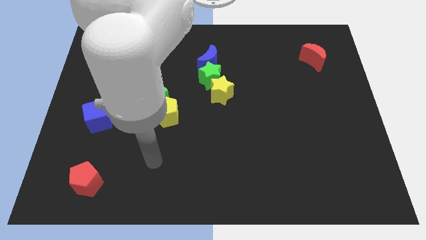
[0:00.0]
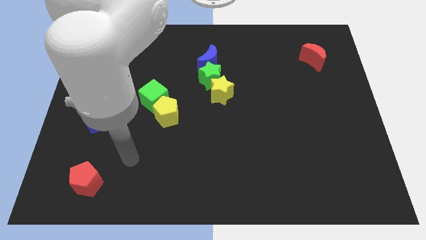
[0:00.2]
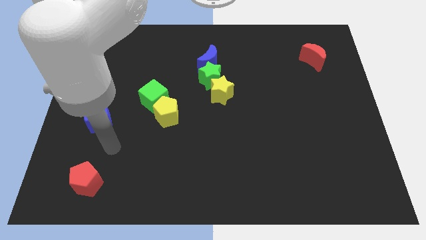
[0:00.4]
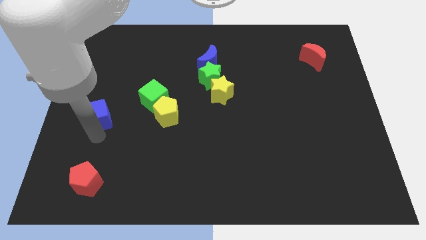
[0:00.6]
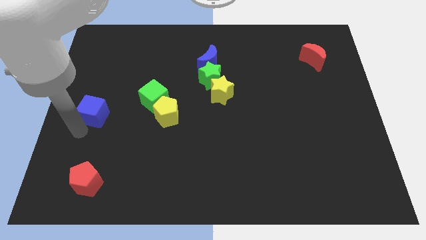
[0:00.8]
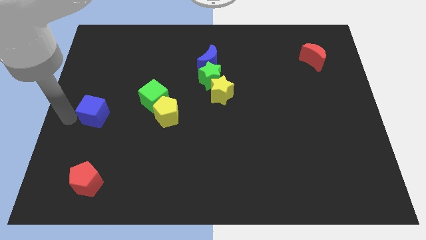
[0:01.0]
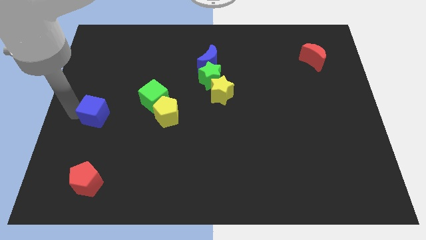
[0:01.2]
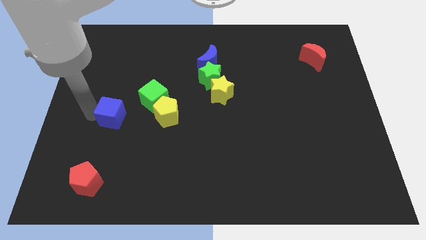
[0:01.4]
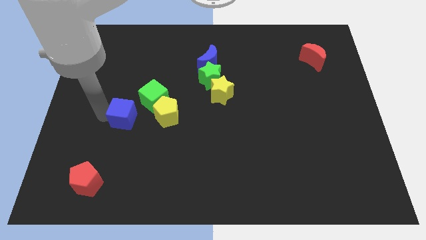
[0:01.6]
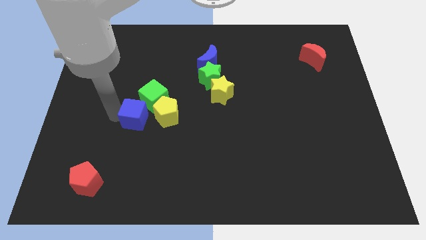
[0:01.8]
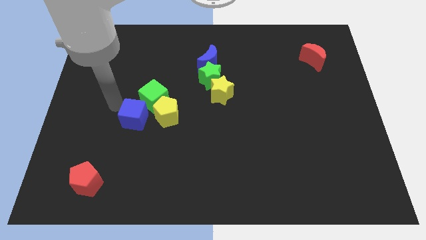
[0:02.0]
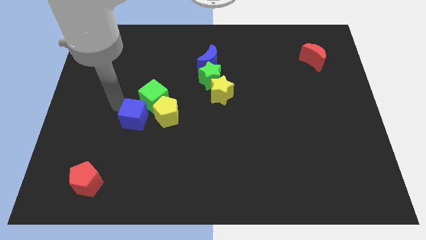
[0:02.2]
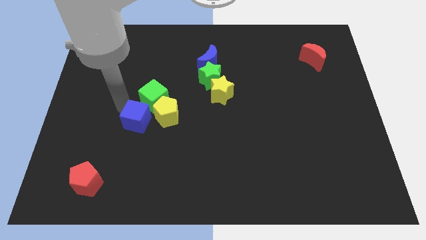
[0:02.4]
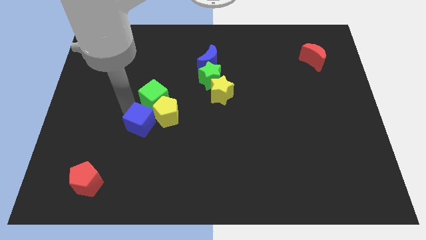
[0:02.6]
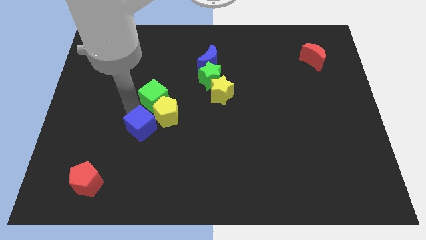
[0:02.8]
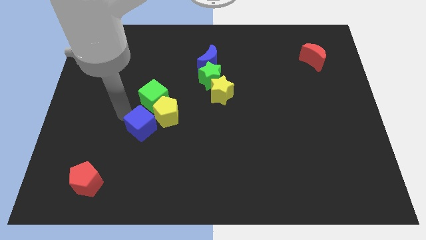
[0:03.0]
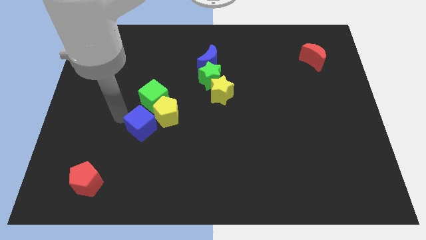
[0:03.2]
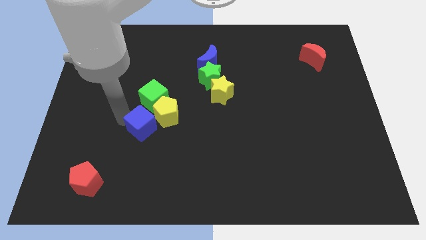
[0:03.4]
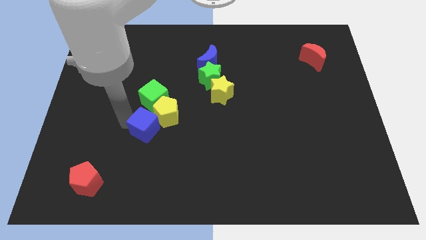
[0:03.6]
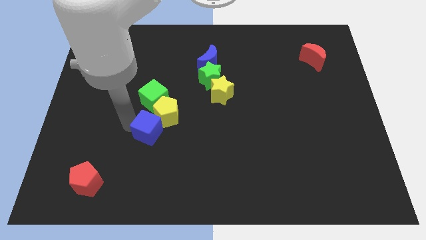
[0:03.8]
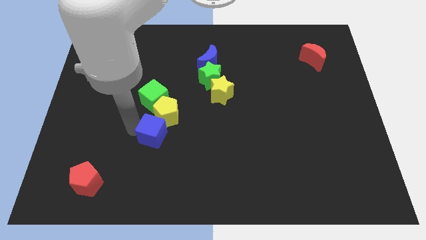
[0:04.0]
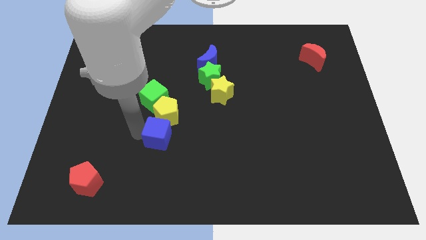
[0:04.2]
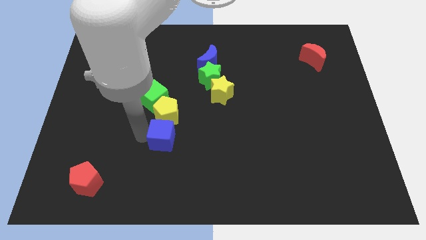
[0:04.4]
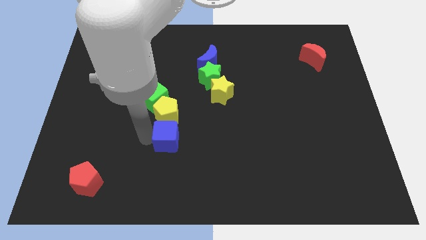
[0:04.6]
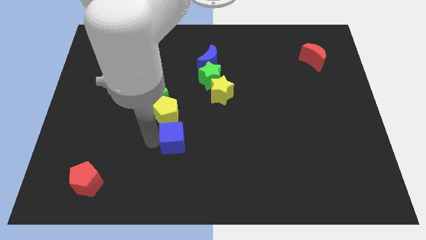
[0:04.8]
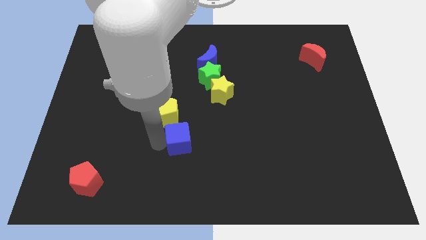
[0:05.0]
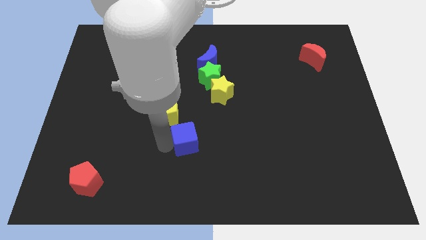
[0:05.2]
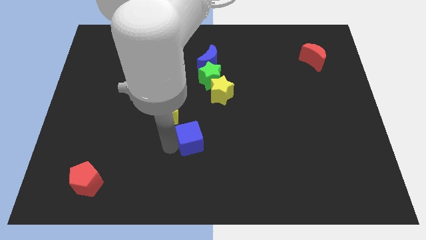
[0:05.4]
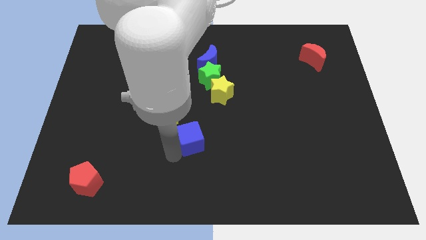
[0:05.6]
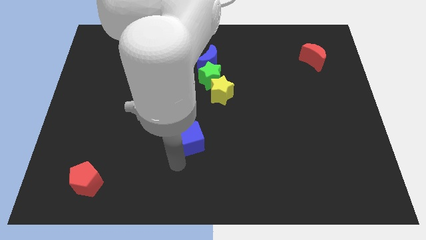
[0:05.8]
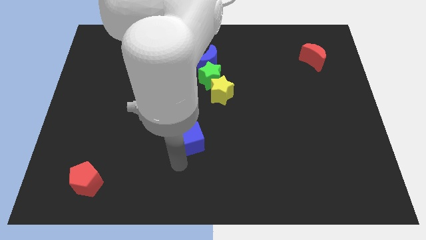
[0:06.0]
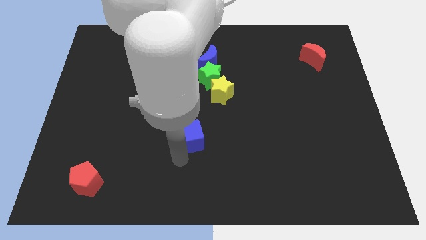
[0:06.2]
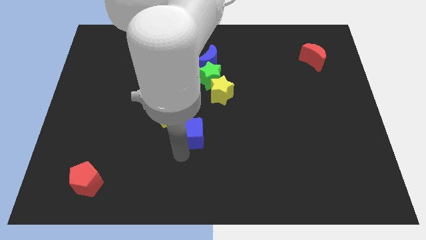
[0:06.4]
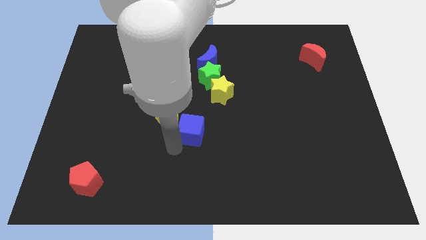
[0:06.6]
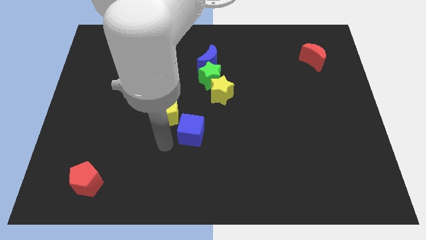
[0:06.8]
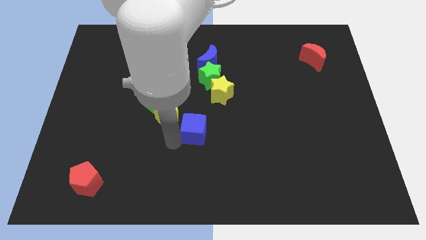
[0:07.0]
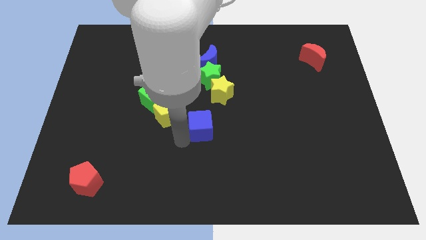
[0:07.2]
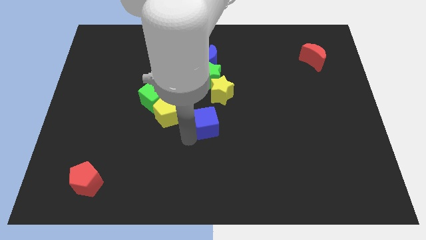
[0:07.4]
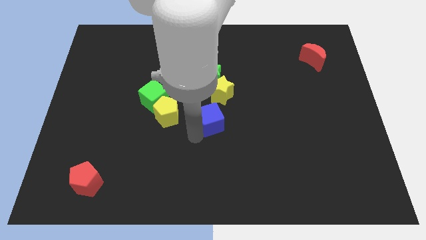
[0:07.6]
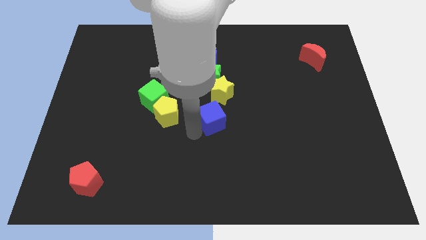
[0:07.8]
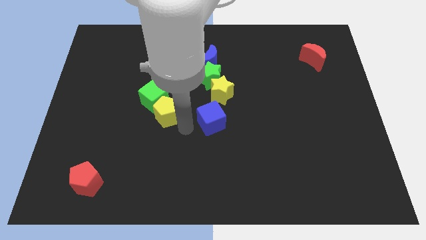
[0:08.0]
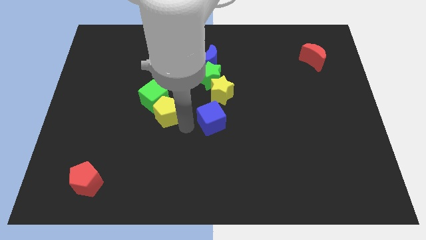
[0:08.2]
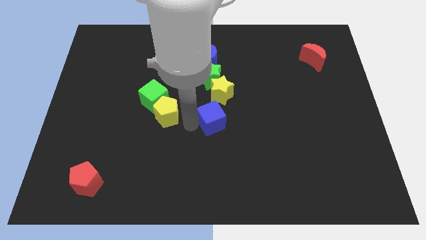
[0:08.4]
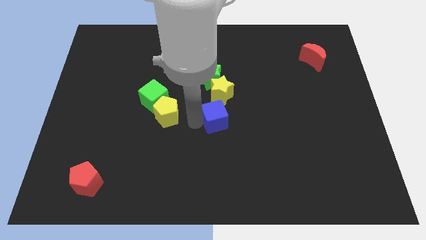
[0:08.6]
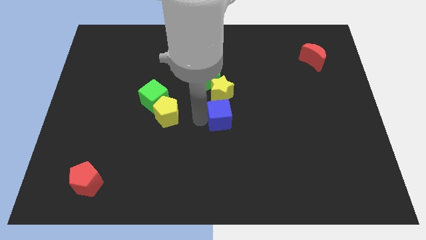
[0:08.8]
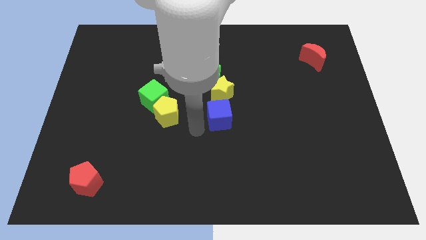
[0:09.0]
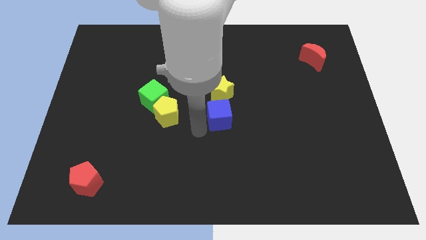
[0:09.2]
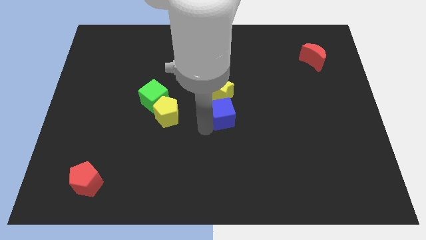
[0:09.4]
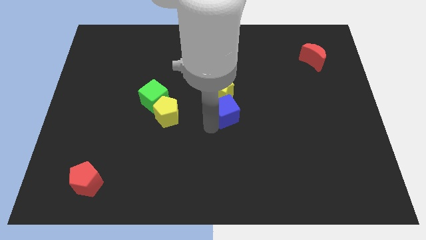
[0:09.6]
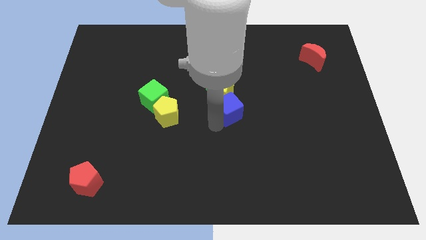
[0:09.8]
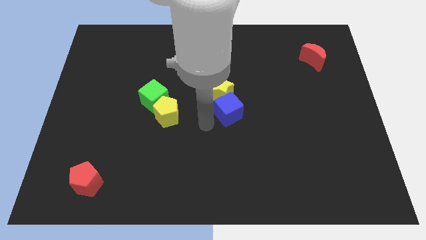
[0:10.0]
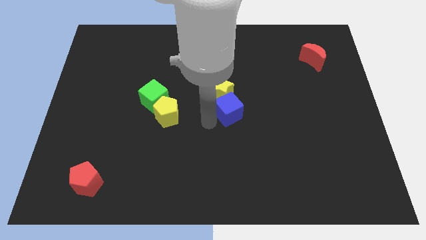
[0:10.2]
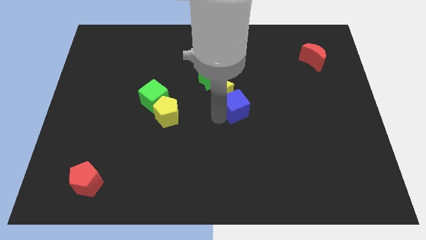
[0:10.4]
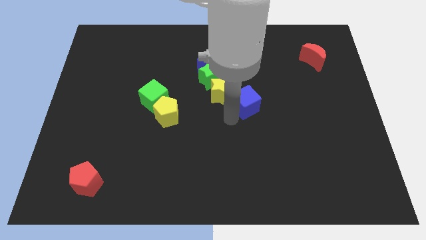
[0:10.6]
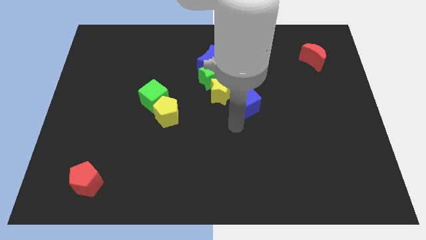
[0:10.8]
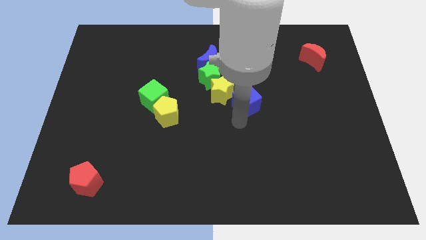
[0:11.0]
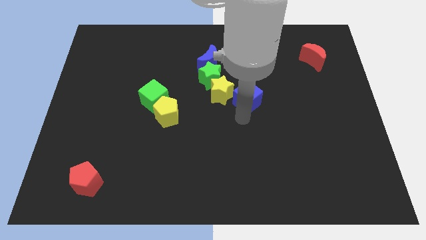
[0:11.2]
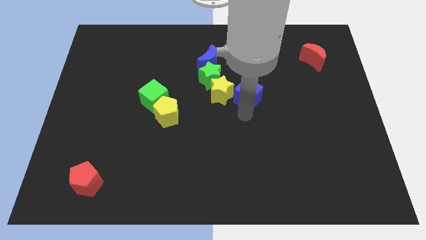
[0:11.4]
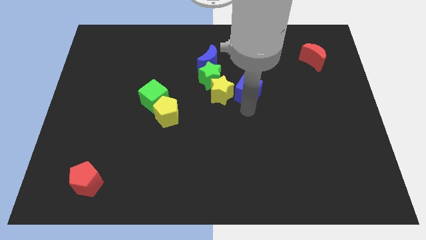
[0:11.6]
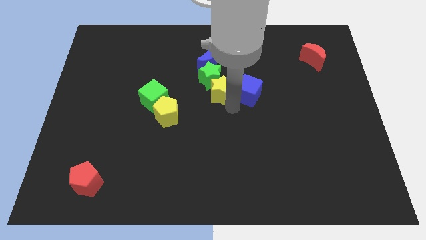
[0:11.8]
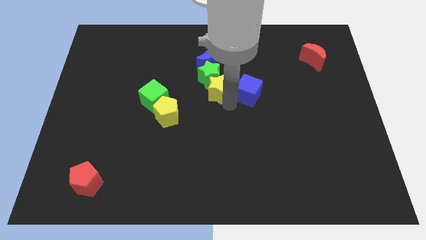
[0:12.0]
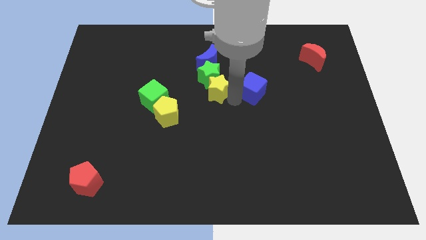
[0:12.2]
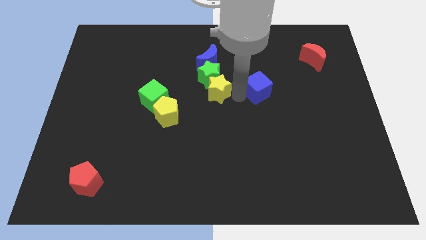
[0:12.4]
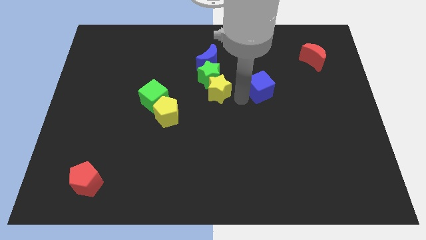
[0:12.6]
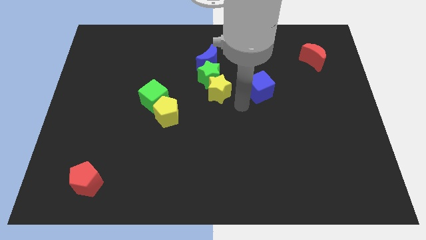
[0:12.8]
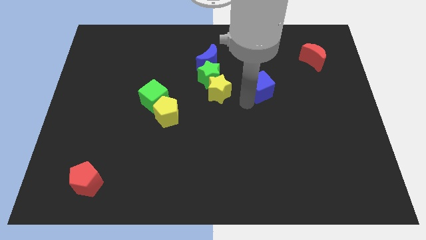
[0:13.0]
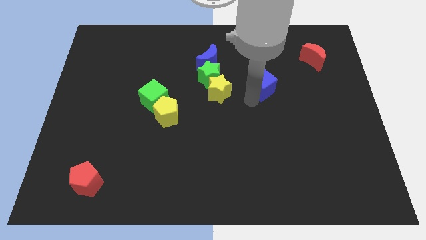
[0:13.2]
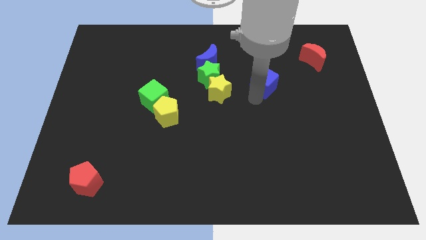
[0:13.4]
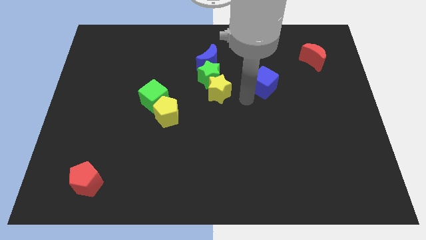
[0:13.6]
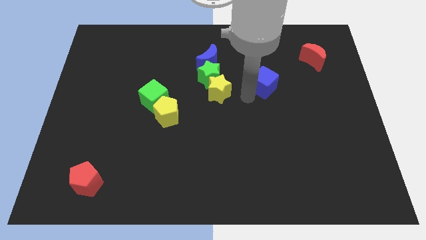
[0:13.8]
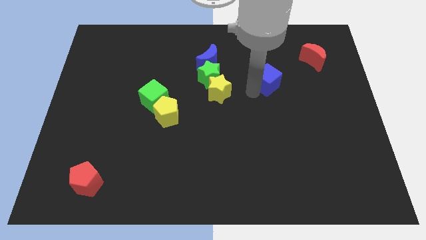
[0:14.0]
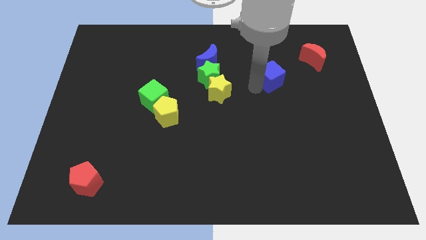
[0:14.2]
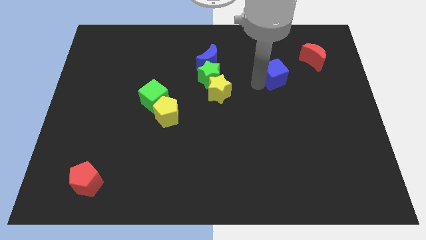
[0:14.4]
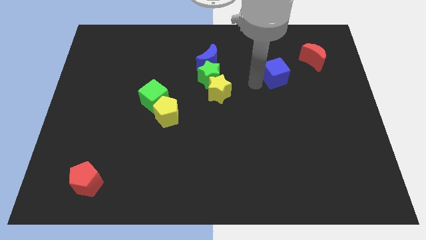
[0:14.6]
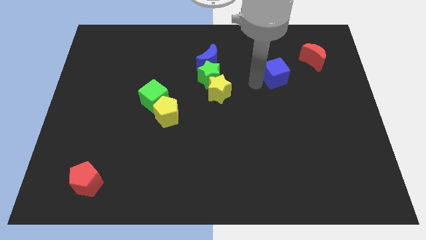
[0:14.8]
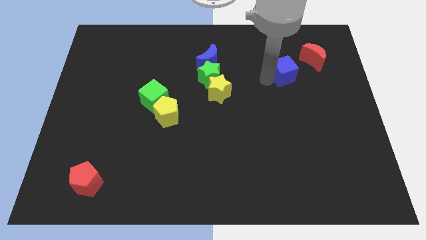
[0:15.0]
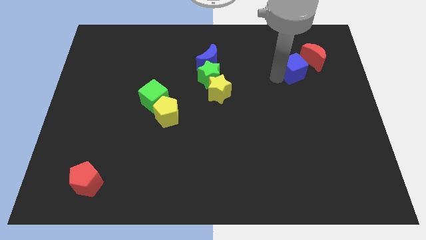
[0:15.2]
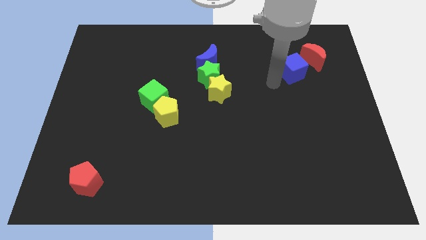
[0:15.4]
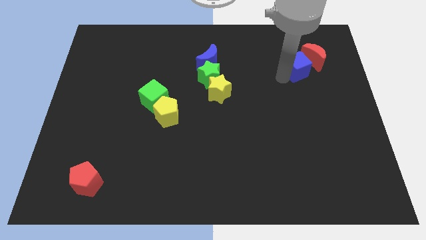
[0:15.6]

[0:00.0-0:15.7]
push the blue cube close to the red moon
